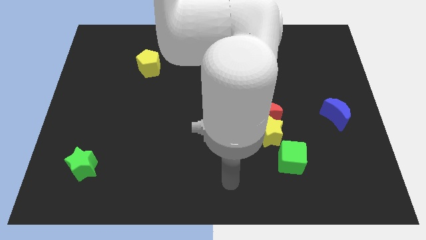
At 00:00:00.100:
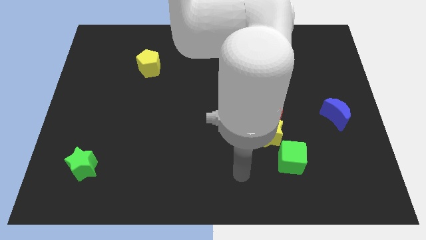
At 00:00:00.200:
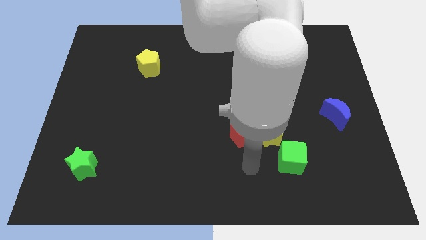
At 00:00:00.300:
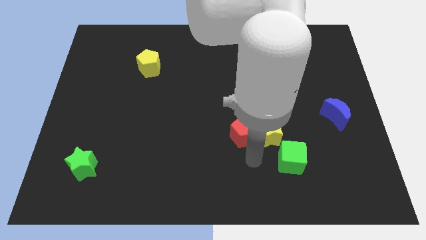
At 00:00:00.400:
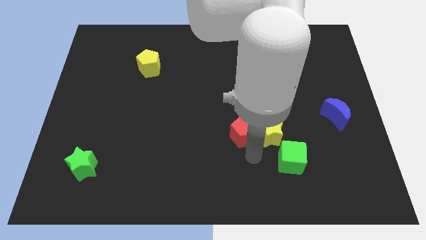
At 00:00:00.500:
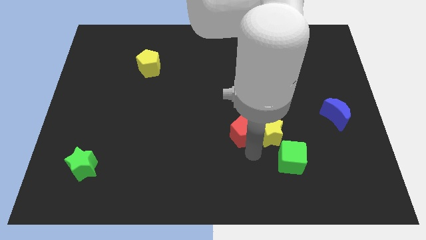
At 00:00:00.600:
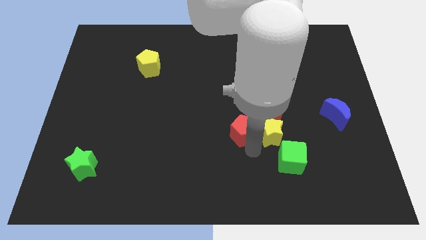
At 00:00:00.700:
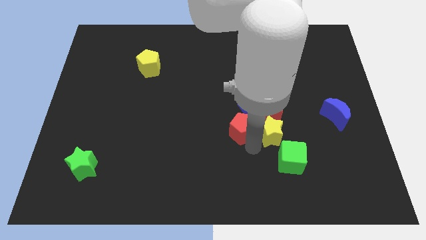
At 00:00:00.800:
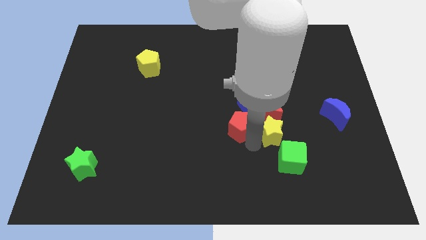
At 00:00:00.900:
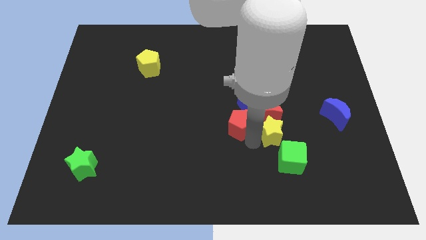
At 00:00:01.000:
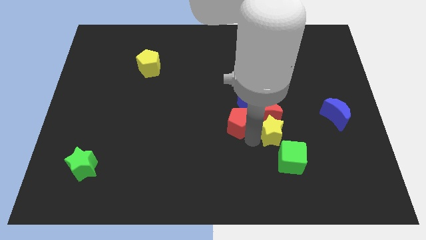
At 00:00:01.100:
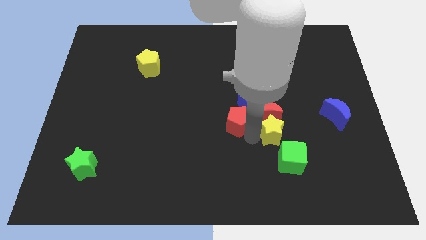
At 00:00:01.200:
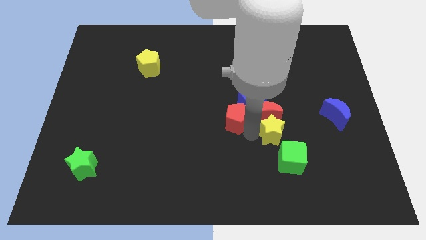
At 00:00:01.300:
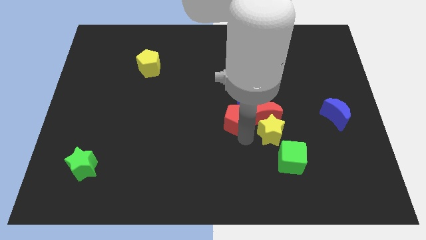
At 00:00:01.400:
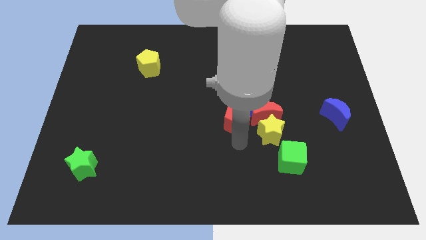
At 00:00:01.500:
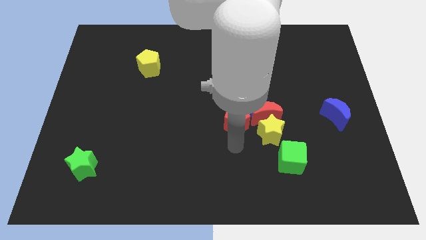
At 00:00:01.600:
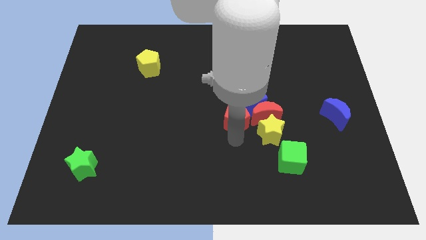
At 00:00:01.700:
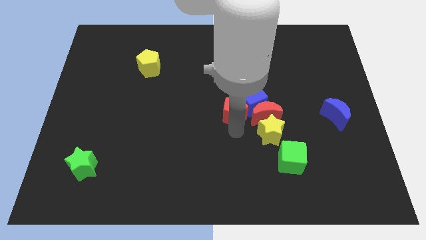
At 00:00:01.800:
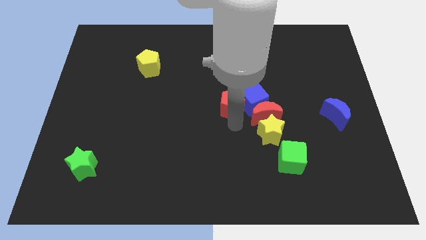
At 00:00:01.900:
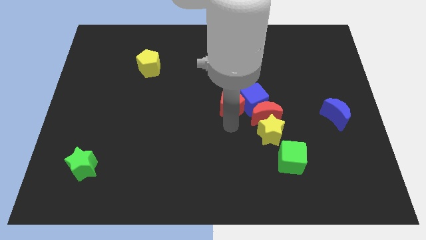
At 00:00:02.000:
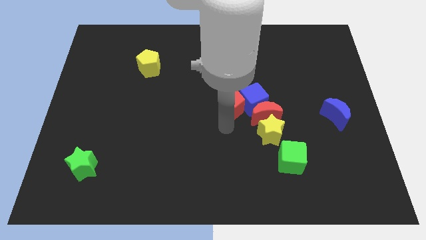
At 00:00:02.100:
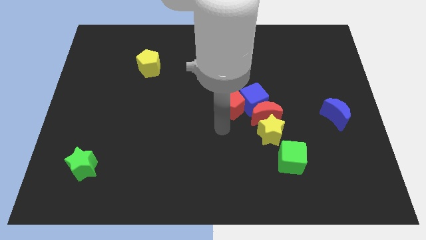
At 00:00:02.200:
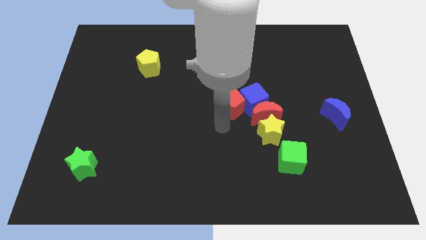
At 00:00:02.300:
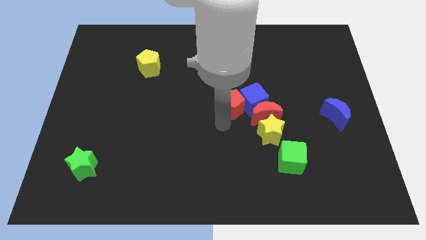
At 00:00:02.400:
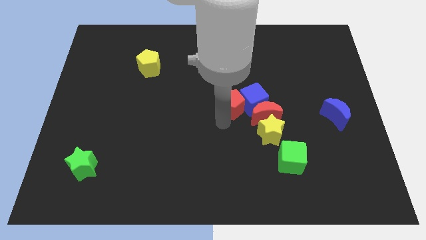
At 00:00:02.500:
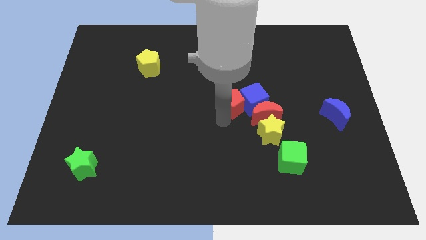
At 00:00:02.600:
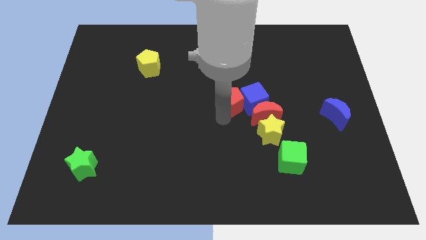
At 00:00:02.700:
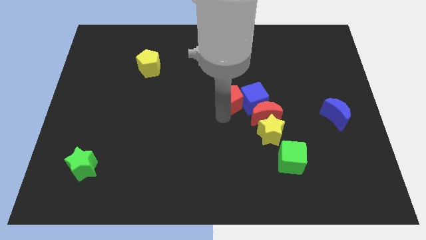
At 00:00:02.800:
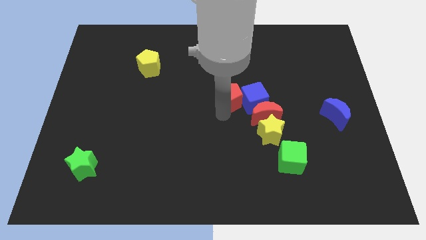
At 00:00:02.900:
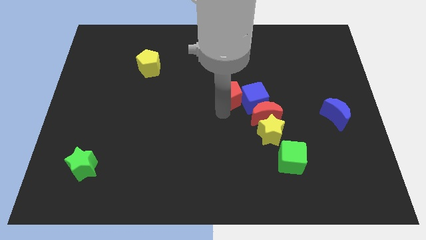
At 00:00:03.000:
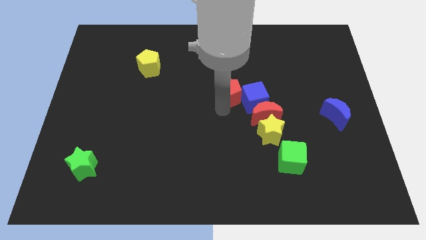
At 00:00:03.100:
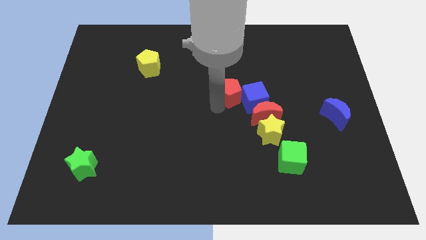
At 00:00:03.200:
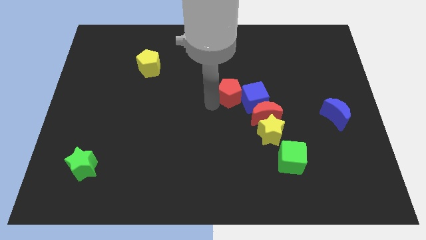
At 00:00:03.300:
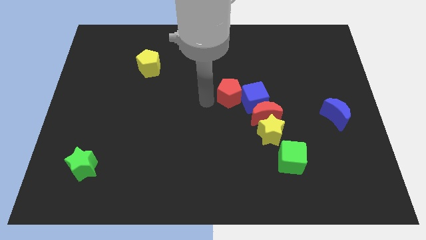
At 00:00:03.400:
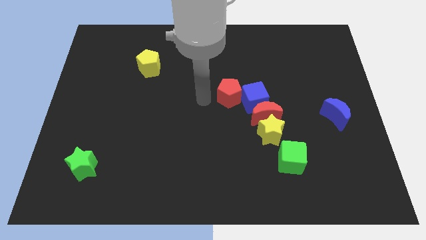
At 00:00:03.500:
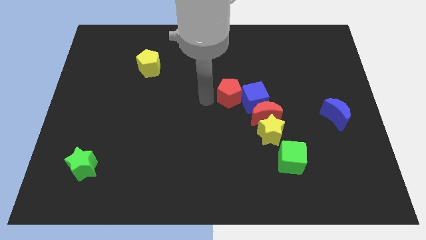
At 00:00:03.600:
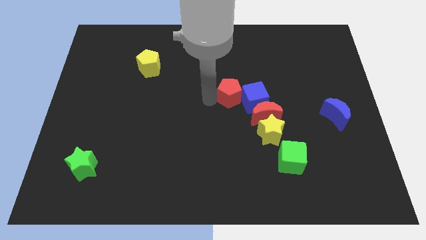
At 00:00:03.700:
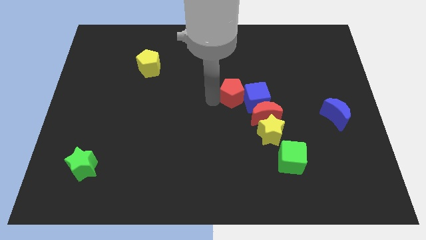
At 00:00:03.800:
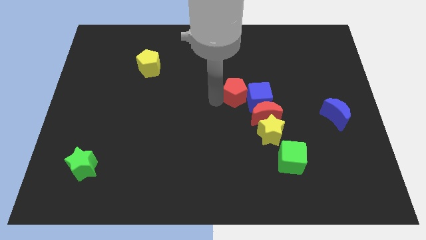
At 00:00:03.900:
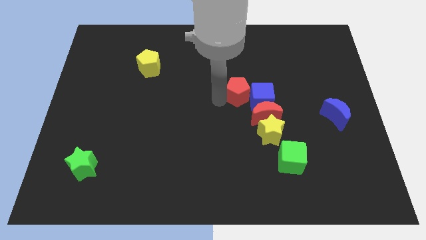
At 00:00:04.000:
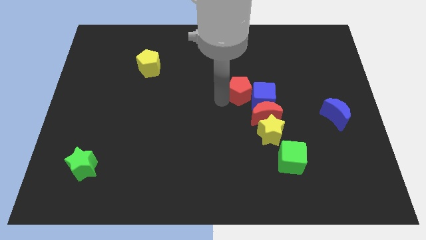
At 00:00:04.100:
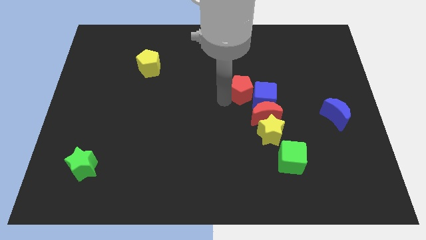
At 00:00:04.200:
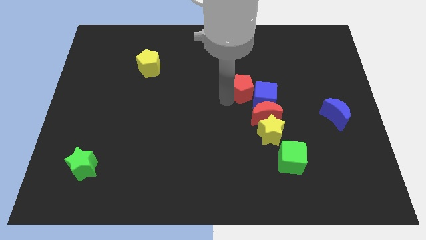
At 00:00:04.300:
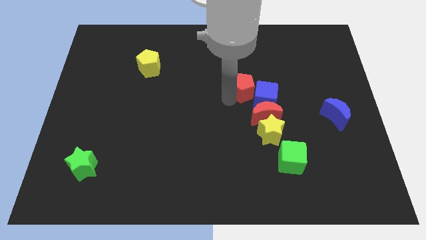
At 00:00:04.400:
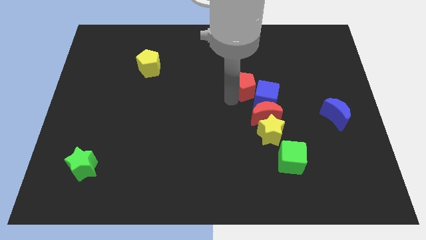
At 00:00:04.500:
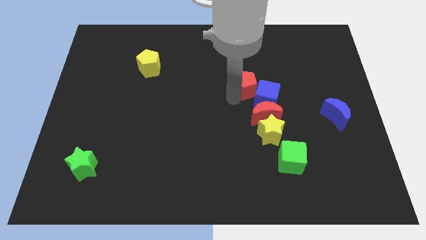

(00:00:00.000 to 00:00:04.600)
slide the red pentagon up and right a little bit

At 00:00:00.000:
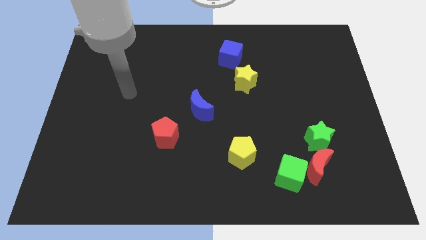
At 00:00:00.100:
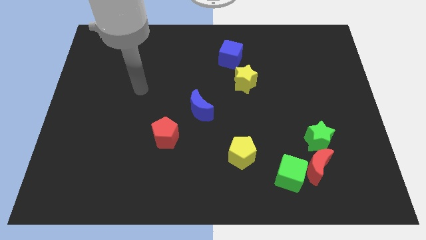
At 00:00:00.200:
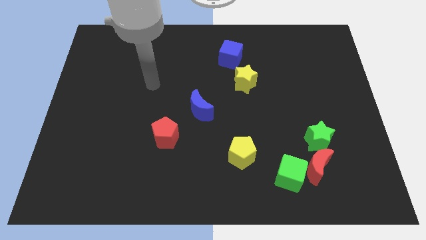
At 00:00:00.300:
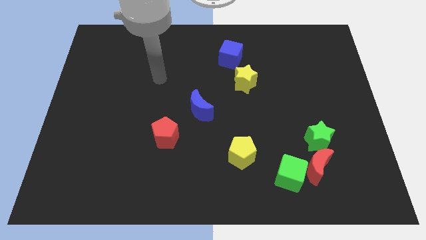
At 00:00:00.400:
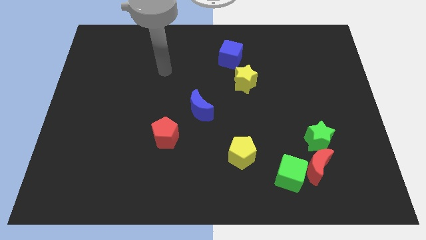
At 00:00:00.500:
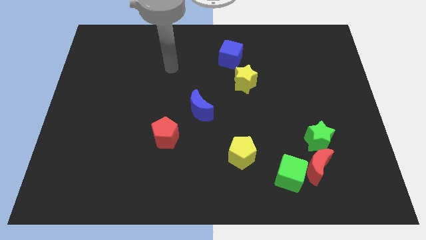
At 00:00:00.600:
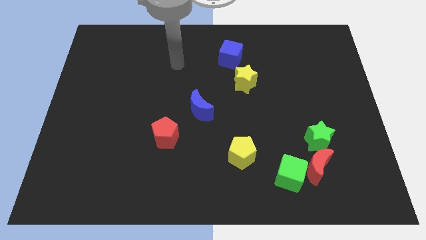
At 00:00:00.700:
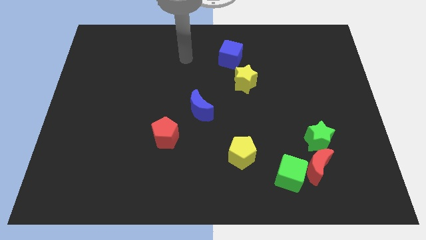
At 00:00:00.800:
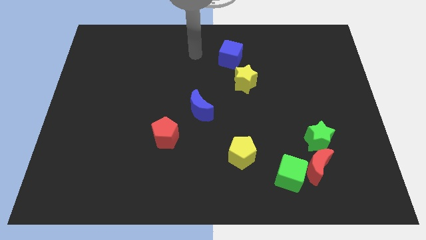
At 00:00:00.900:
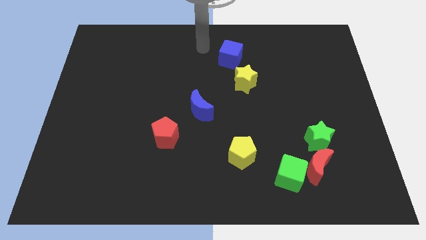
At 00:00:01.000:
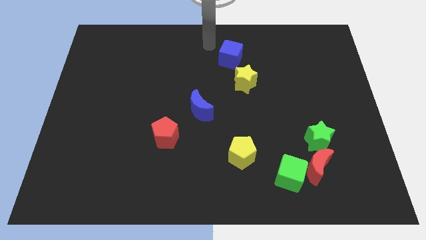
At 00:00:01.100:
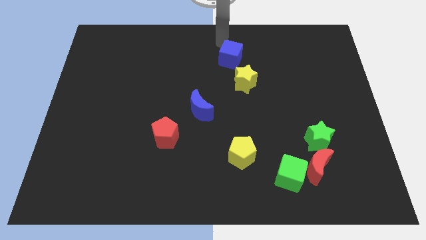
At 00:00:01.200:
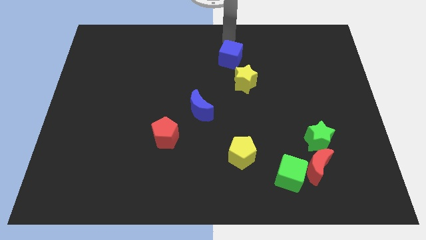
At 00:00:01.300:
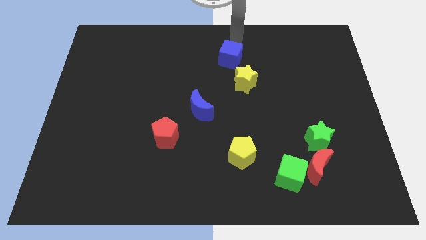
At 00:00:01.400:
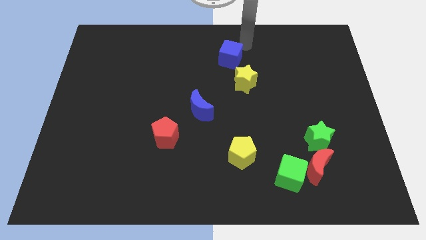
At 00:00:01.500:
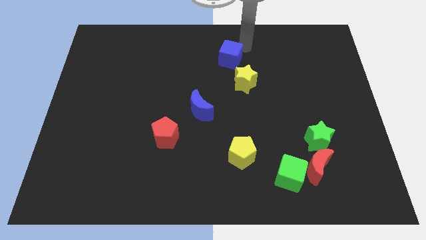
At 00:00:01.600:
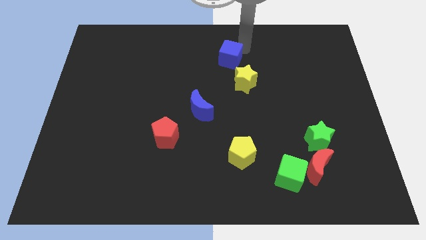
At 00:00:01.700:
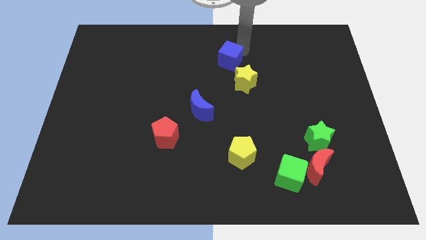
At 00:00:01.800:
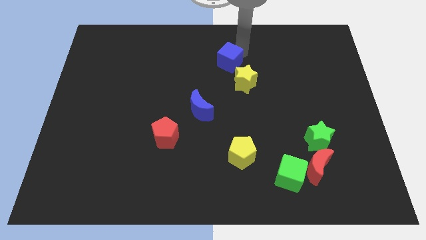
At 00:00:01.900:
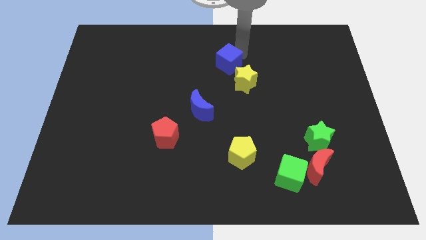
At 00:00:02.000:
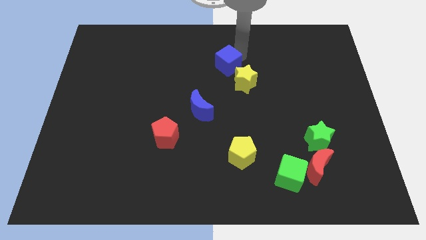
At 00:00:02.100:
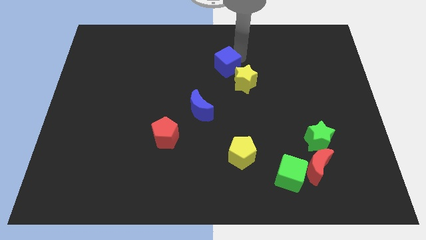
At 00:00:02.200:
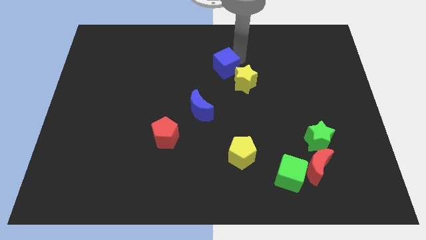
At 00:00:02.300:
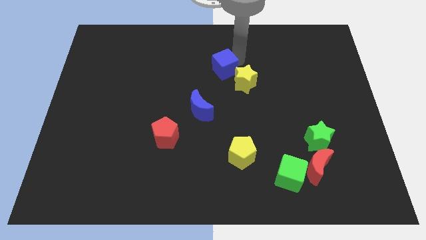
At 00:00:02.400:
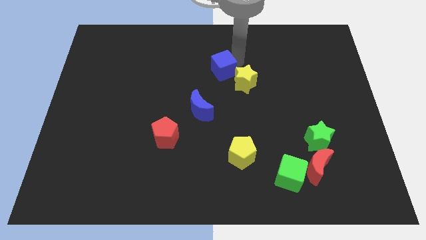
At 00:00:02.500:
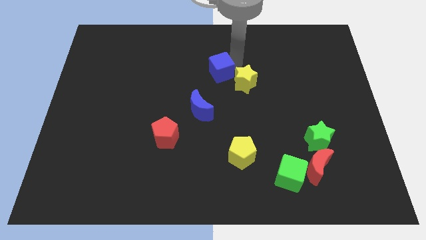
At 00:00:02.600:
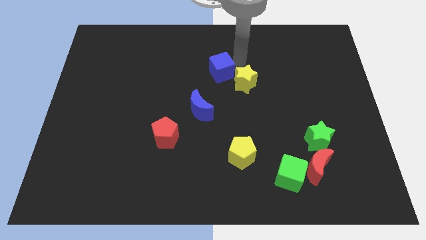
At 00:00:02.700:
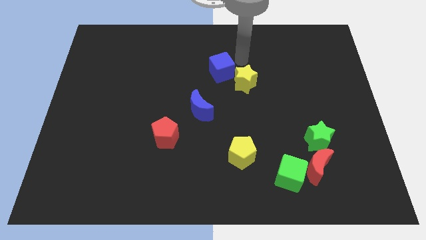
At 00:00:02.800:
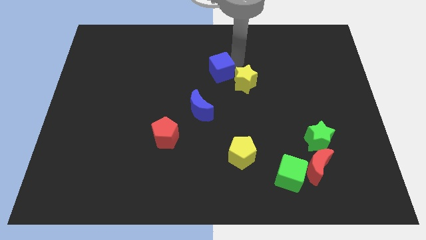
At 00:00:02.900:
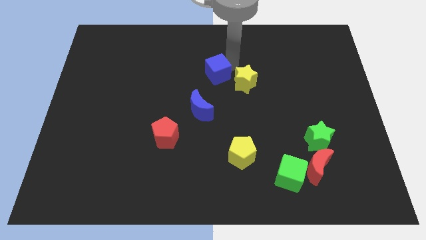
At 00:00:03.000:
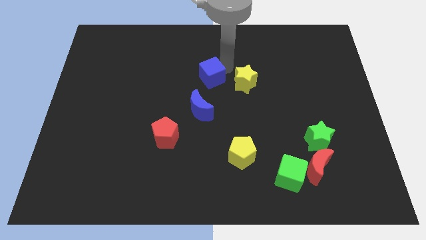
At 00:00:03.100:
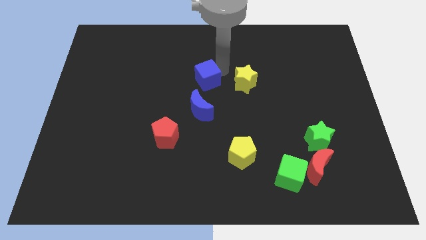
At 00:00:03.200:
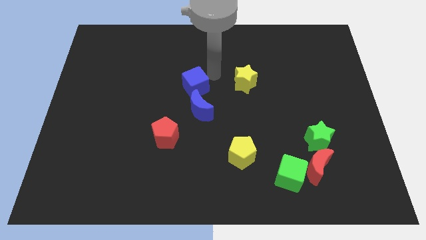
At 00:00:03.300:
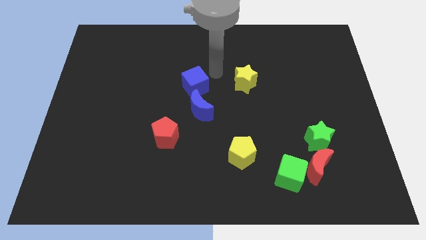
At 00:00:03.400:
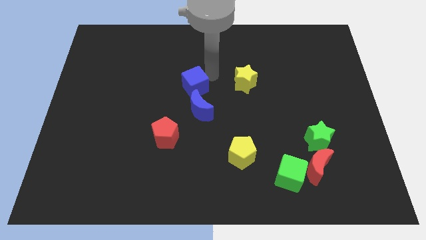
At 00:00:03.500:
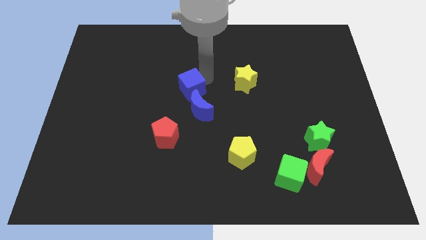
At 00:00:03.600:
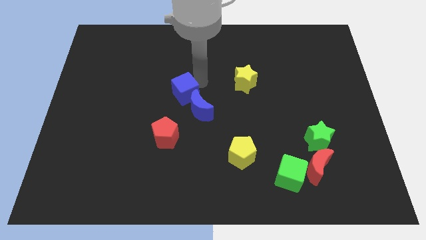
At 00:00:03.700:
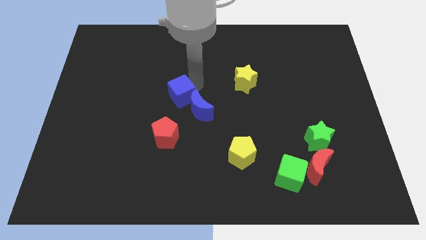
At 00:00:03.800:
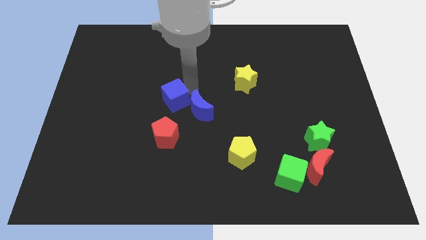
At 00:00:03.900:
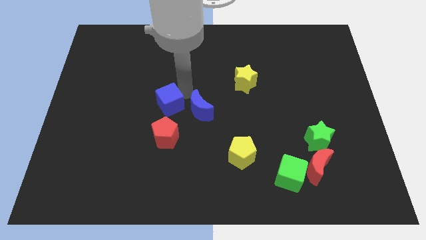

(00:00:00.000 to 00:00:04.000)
slide the blue cube downwards and left
